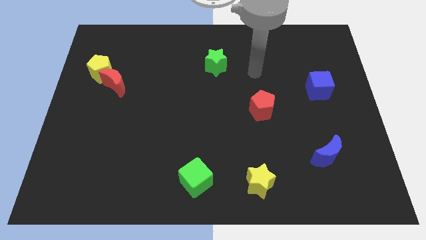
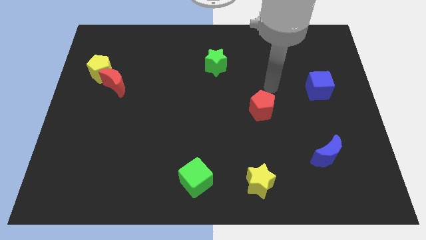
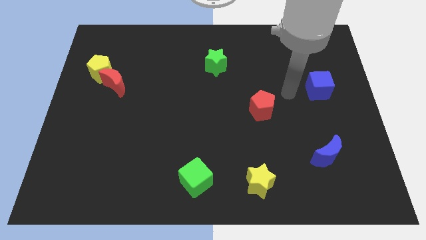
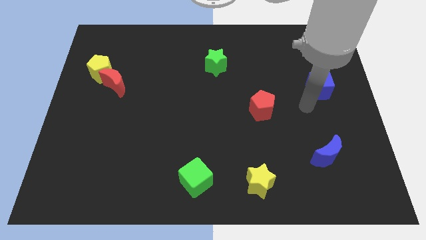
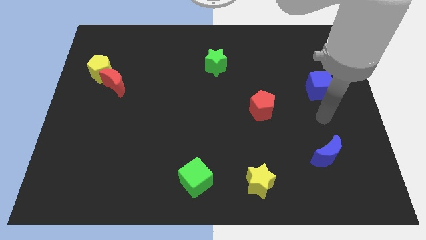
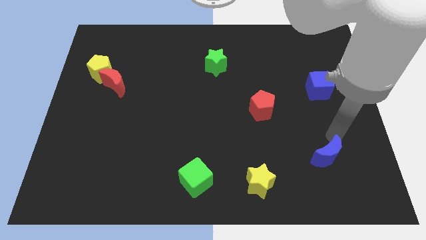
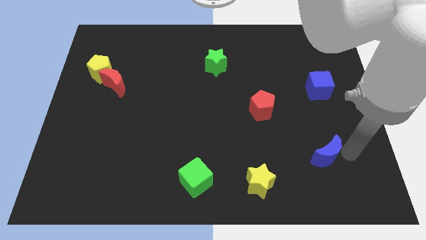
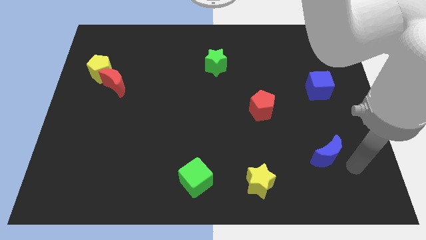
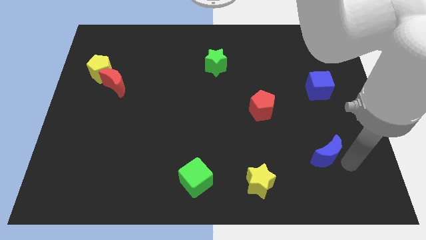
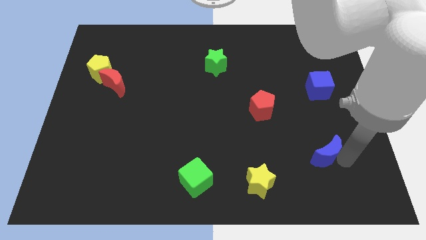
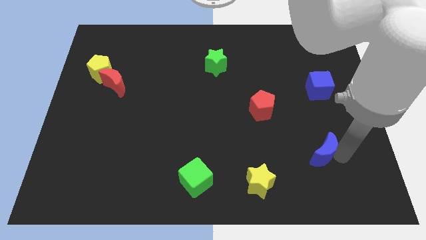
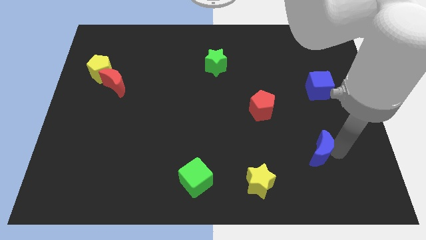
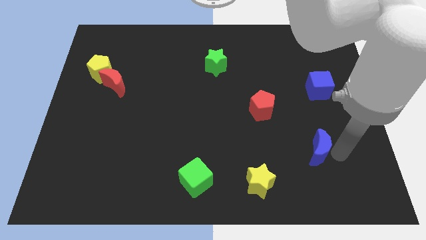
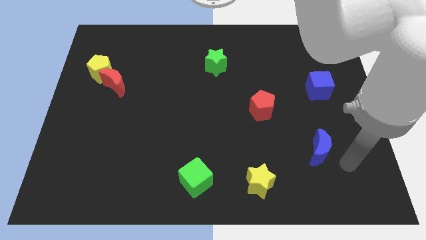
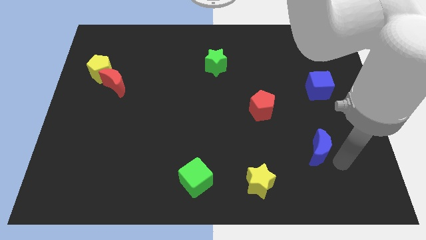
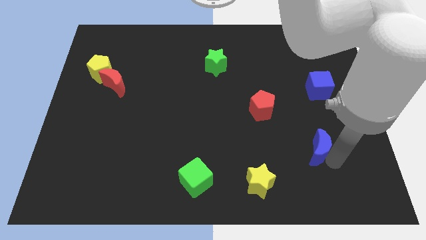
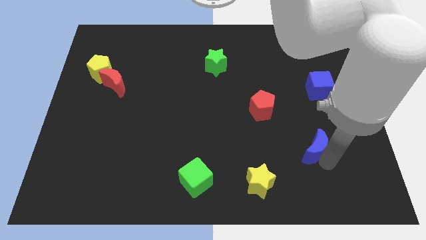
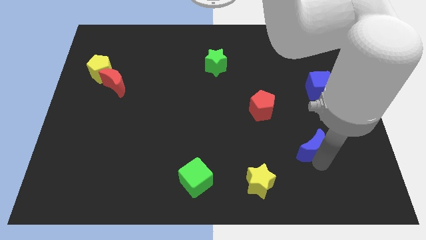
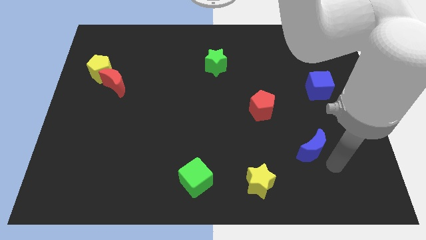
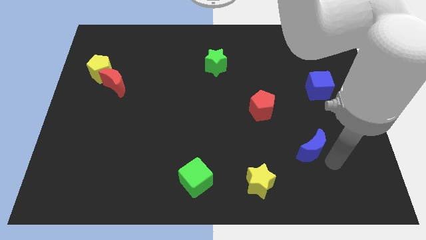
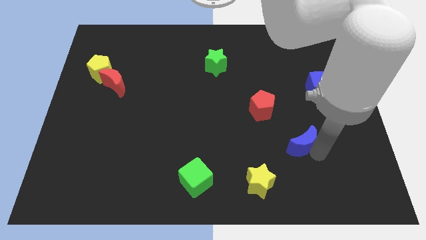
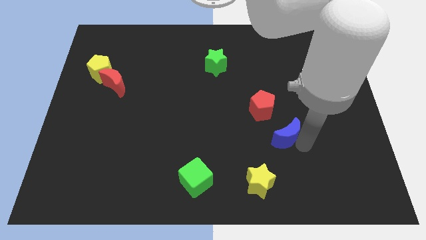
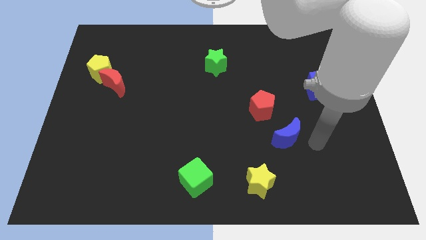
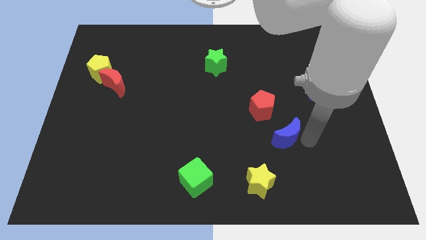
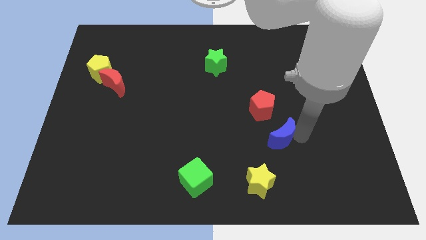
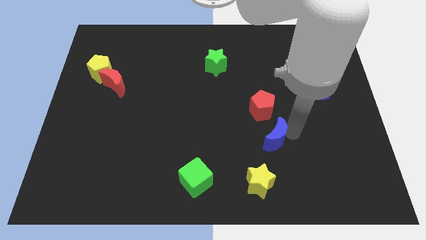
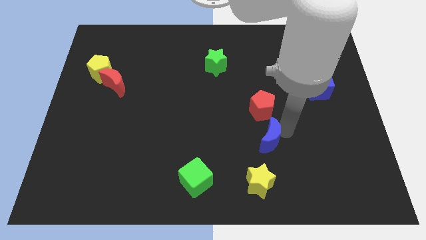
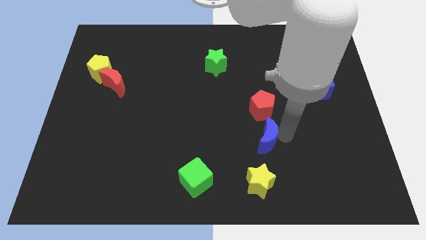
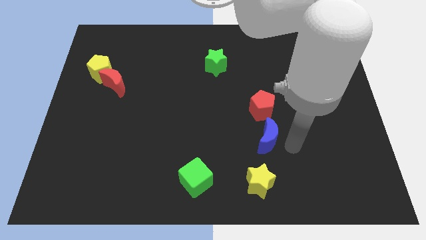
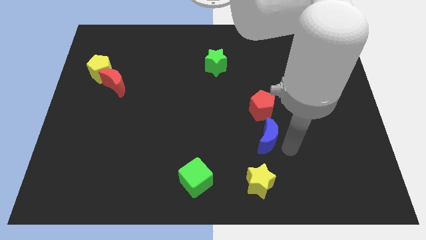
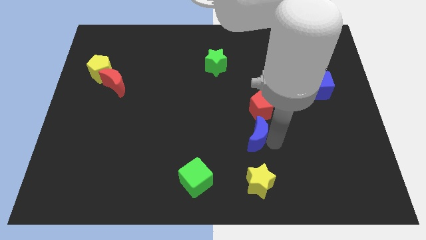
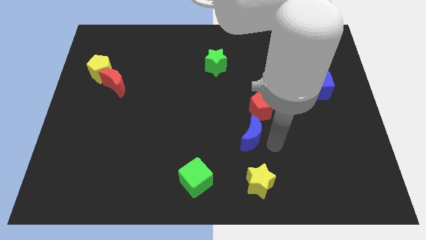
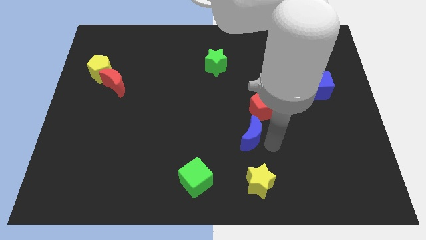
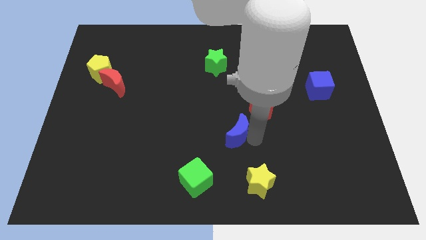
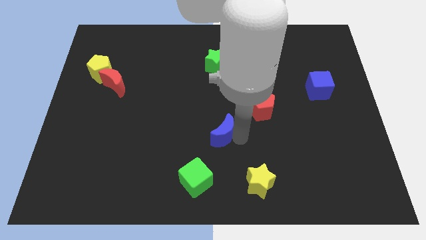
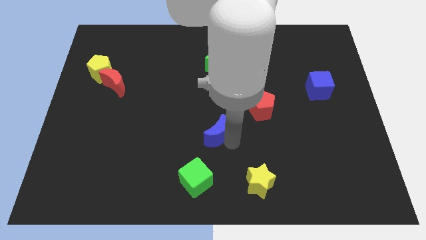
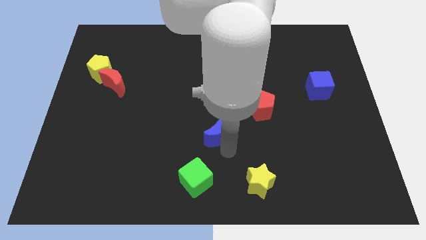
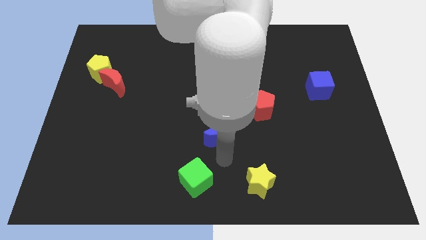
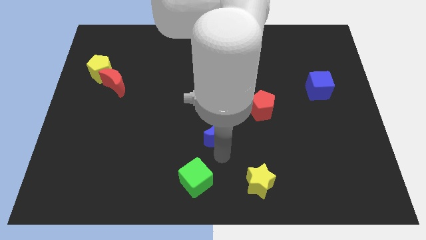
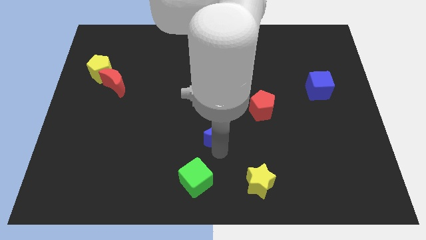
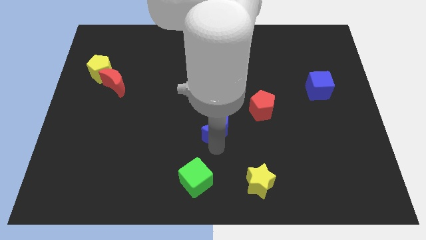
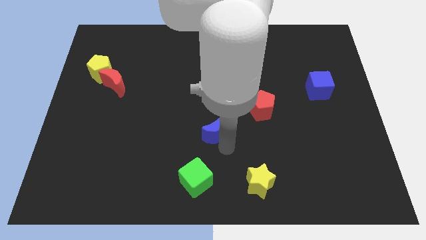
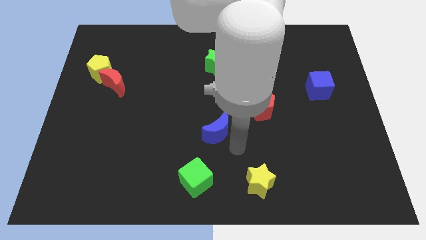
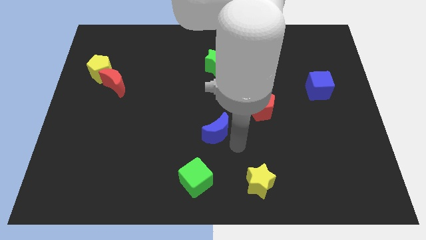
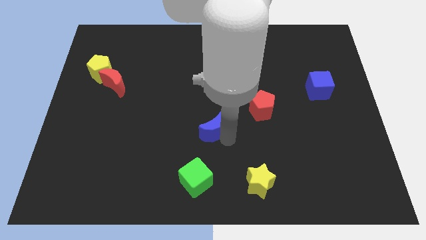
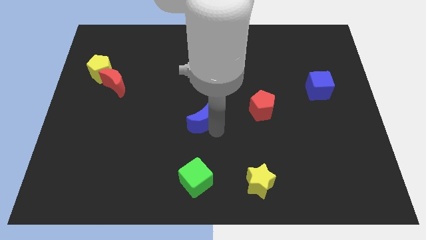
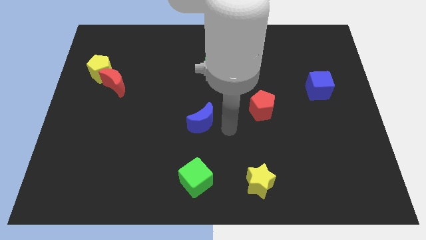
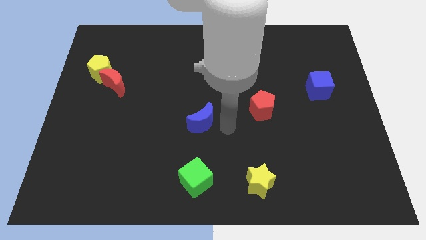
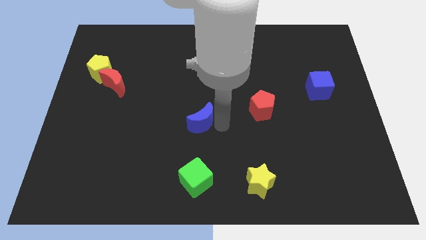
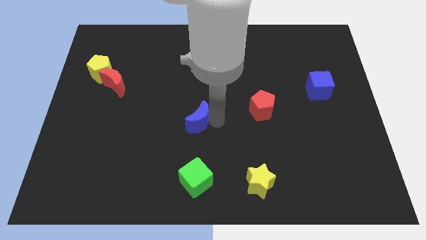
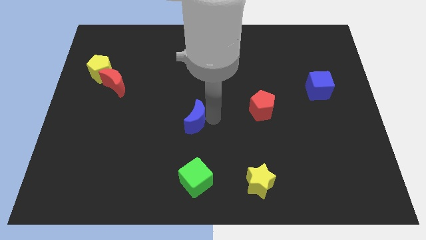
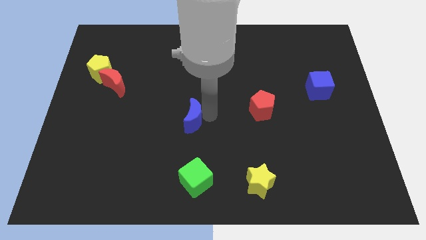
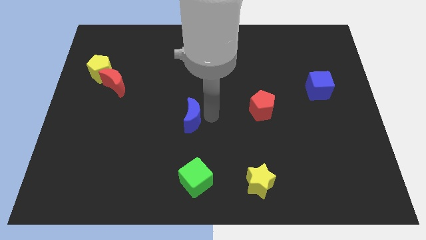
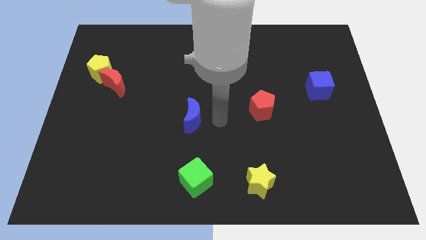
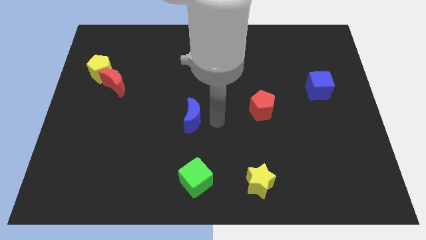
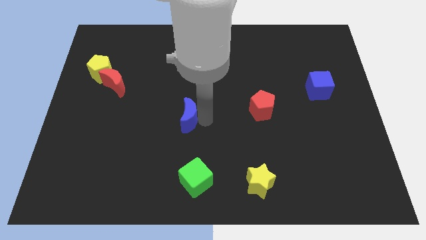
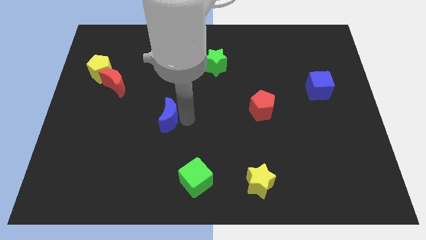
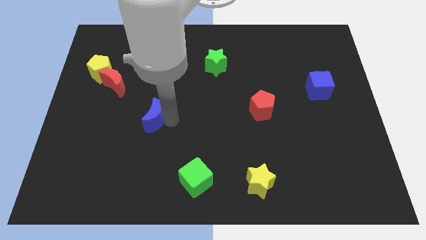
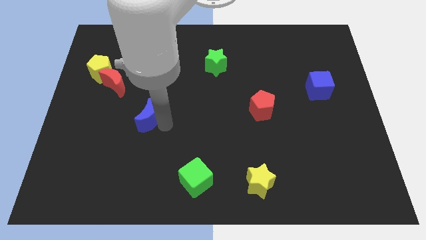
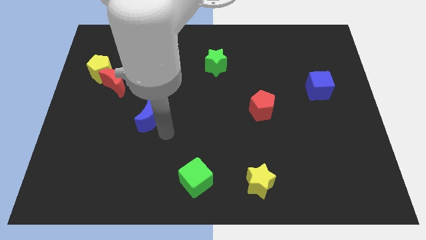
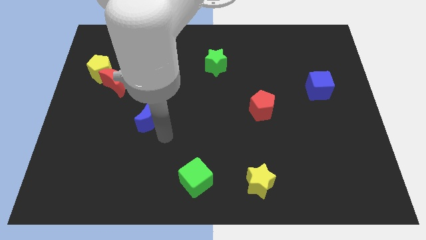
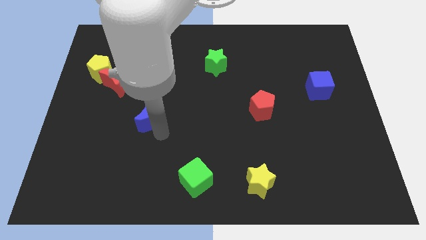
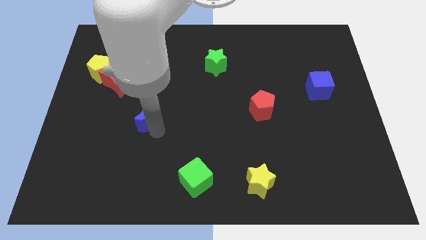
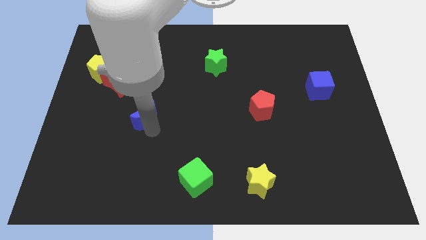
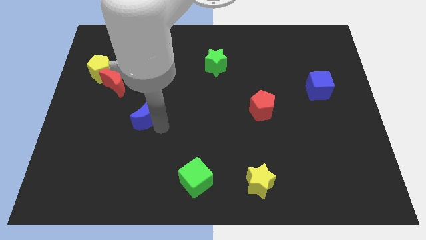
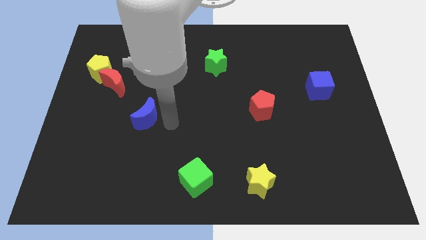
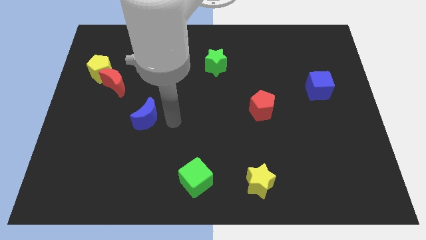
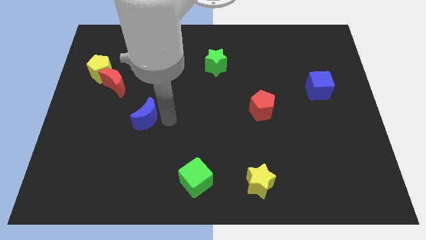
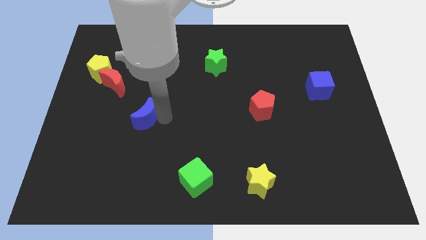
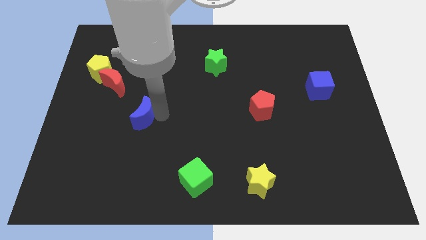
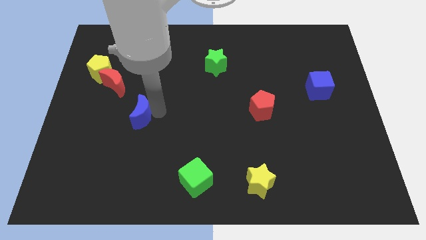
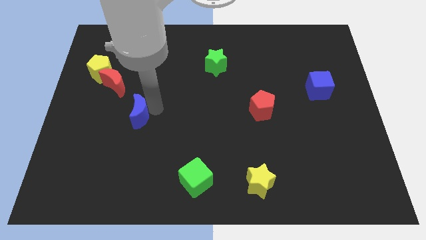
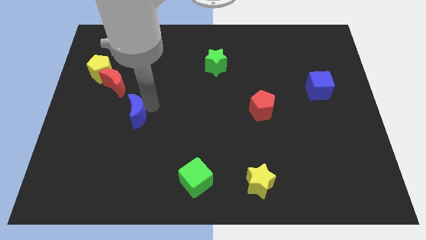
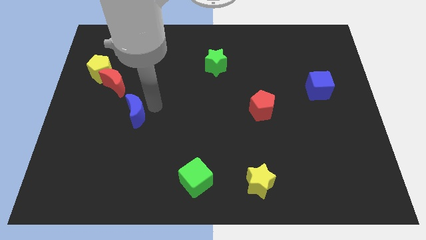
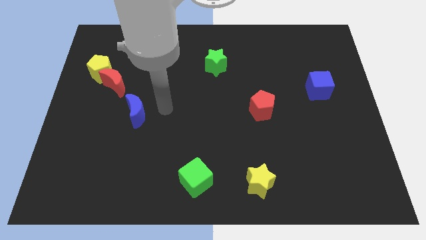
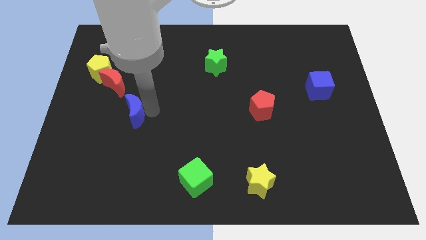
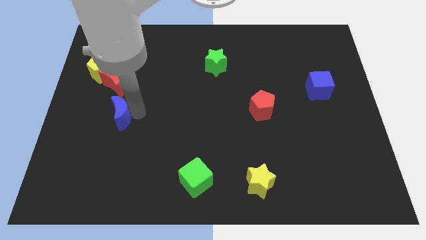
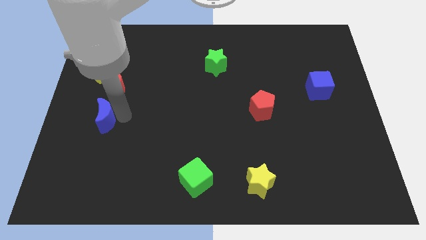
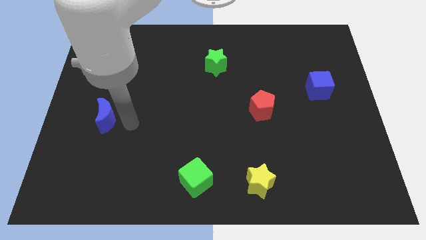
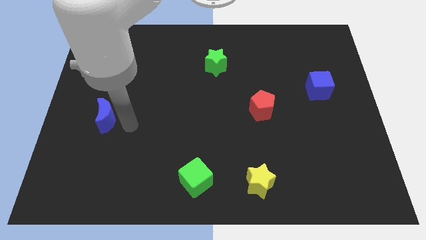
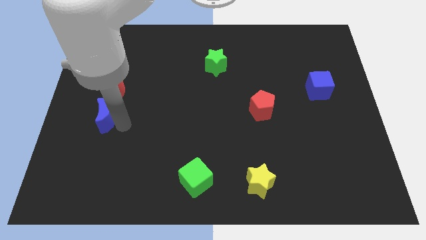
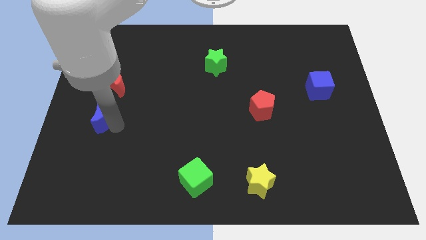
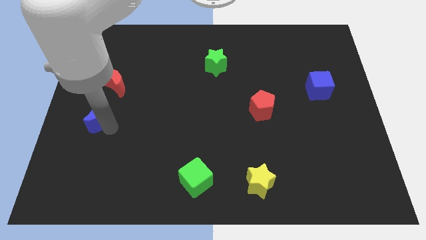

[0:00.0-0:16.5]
slide the blue moon to the center left
